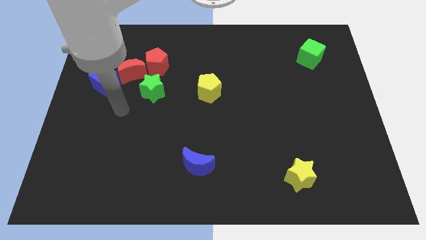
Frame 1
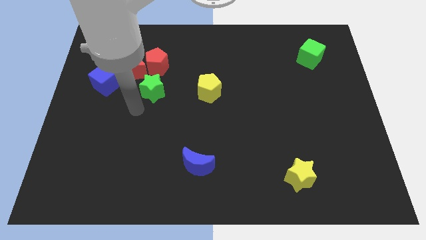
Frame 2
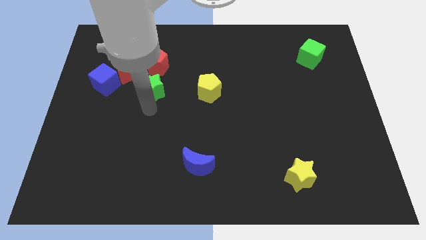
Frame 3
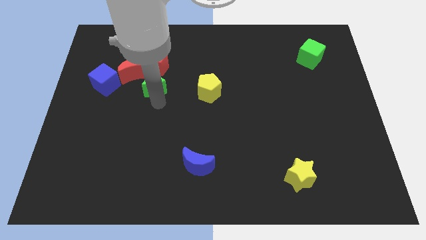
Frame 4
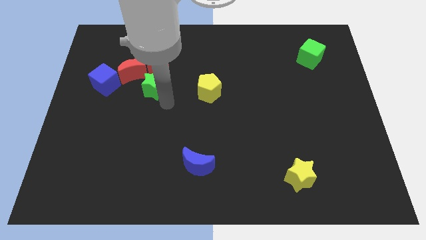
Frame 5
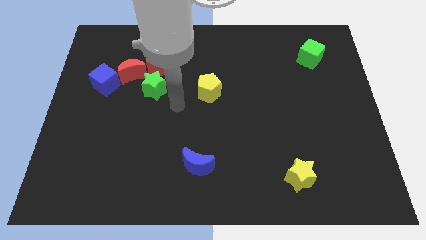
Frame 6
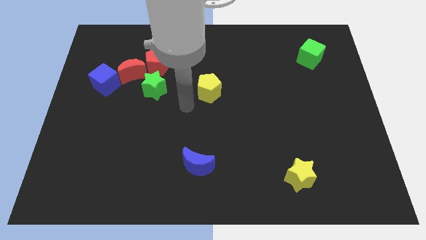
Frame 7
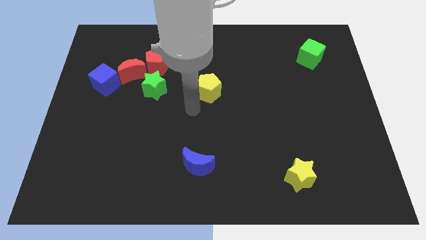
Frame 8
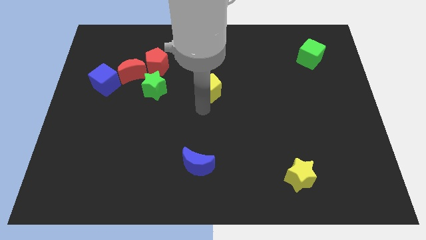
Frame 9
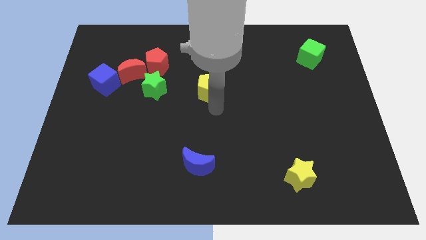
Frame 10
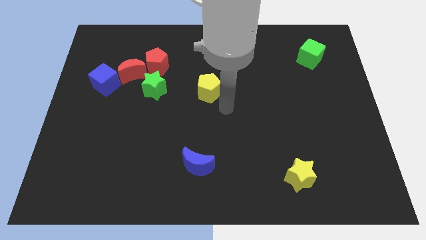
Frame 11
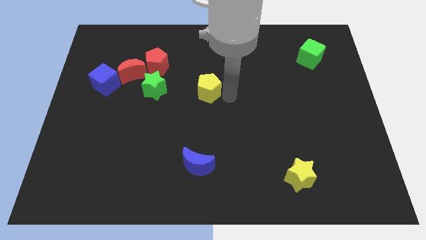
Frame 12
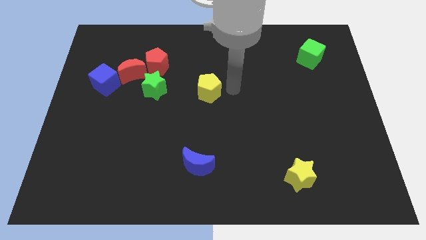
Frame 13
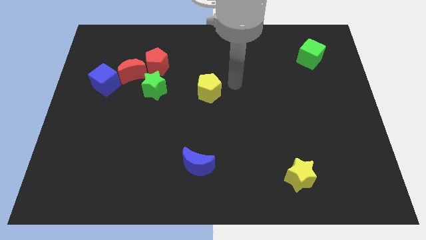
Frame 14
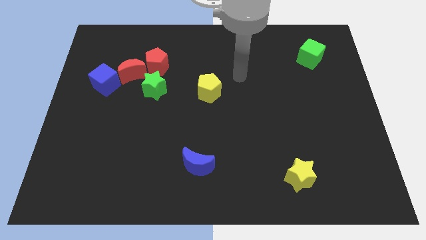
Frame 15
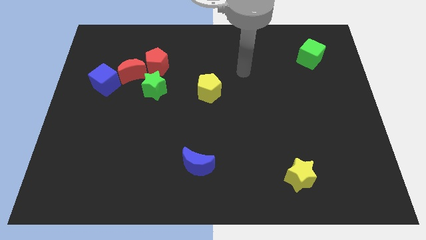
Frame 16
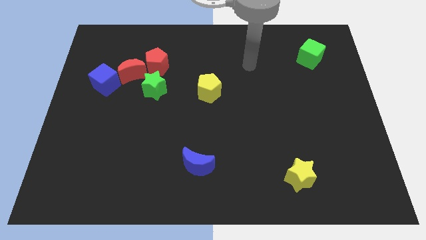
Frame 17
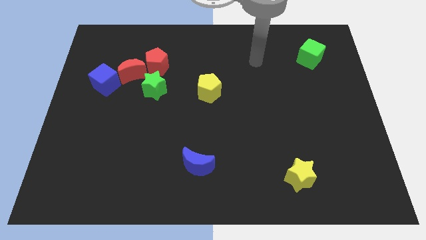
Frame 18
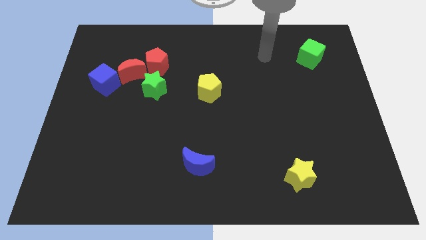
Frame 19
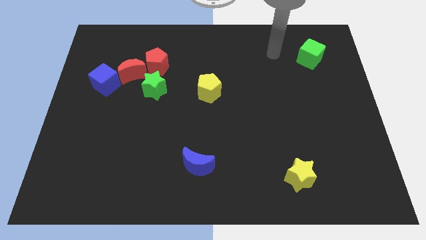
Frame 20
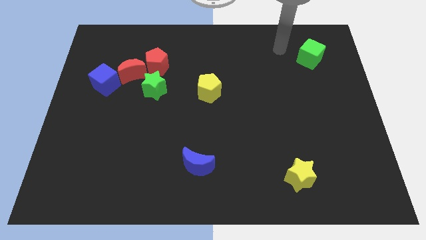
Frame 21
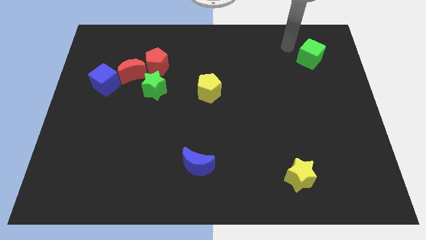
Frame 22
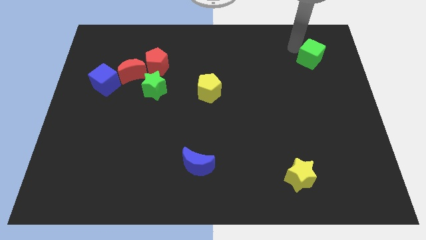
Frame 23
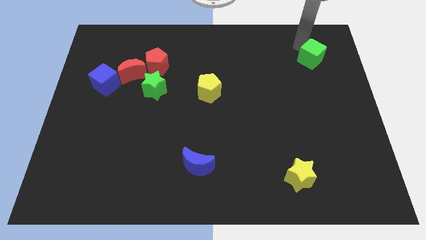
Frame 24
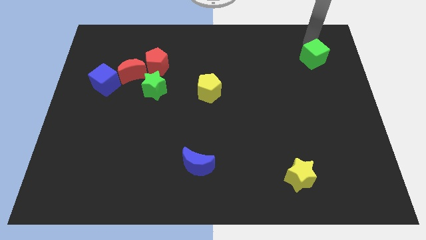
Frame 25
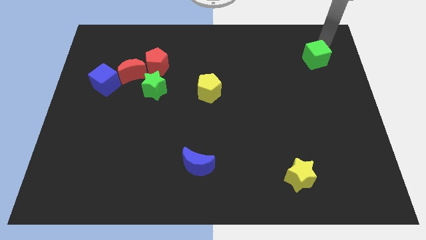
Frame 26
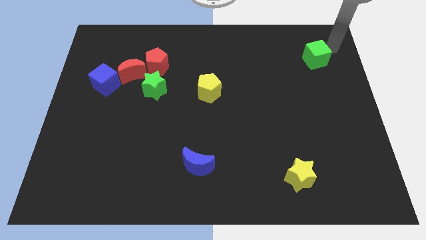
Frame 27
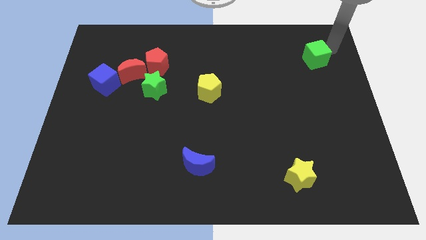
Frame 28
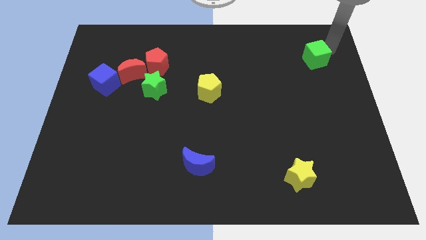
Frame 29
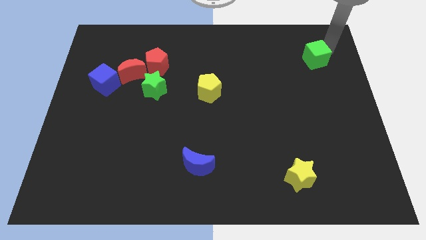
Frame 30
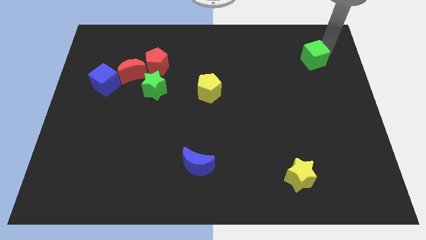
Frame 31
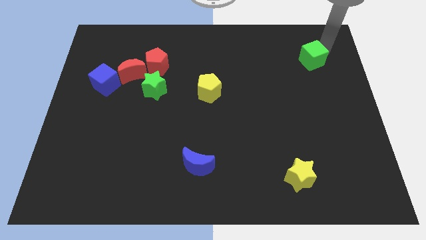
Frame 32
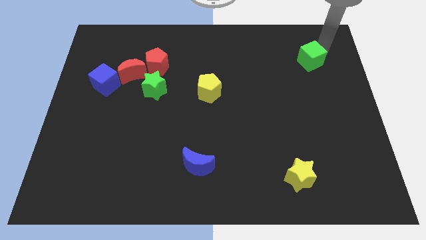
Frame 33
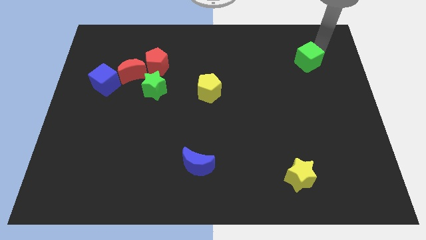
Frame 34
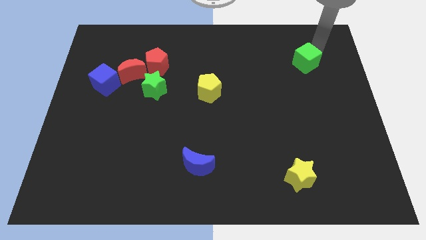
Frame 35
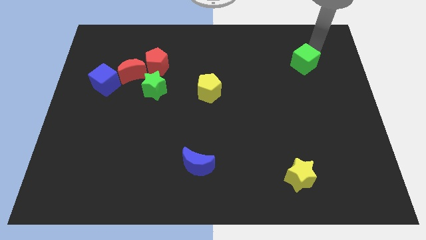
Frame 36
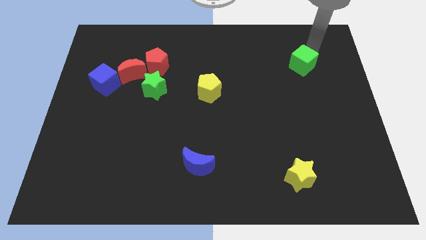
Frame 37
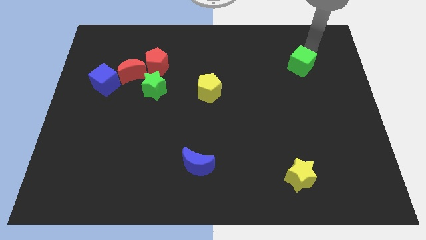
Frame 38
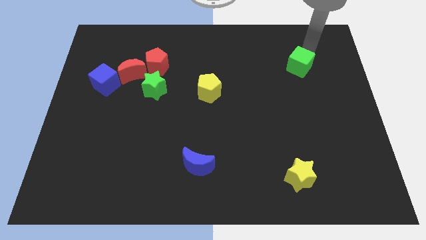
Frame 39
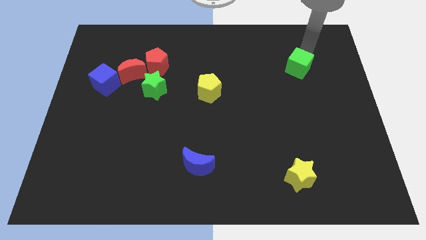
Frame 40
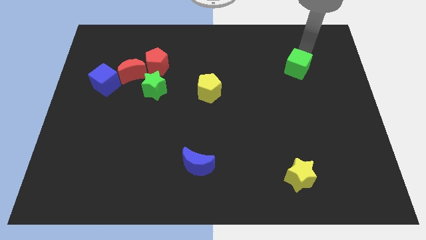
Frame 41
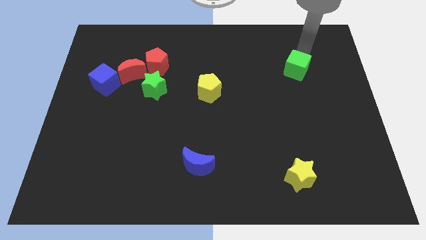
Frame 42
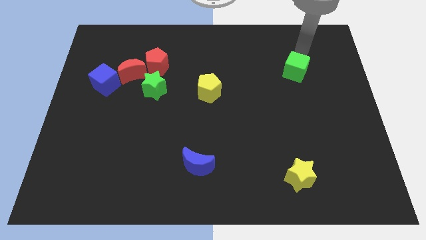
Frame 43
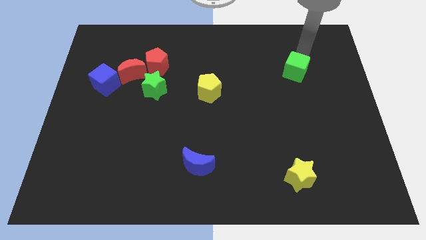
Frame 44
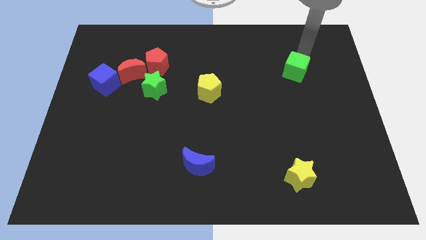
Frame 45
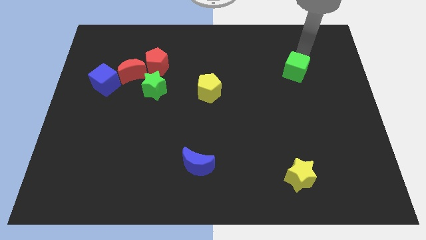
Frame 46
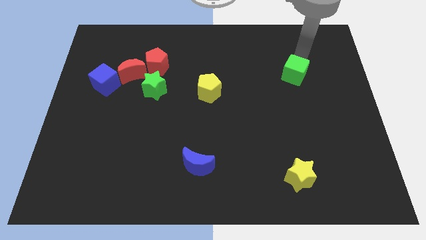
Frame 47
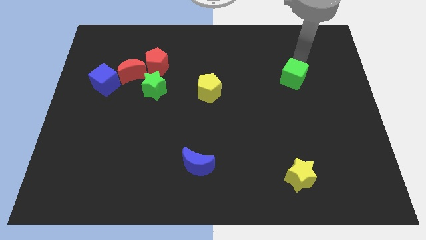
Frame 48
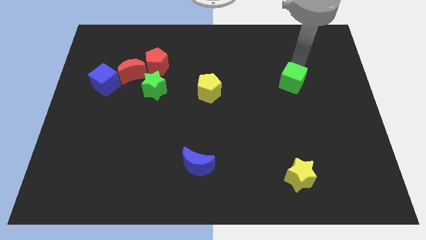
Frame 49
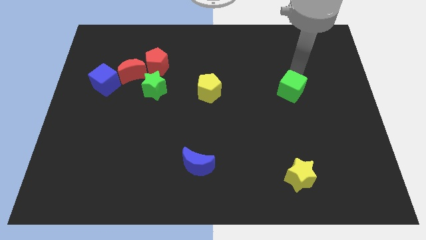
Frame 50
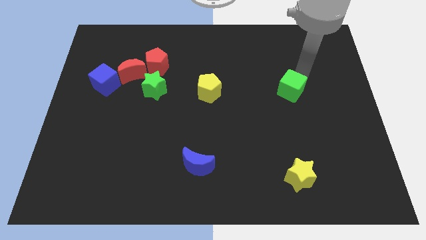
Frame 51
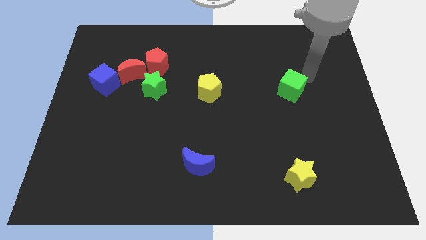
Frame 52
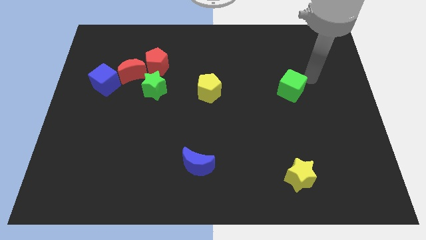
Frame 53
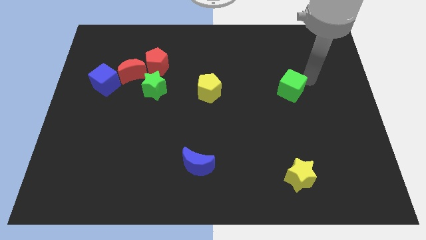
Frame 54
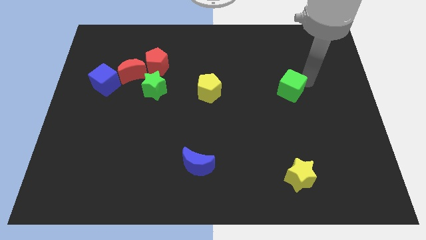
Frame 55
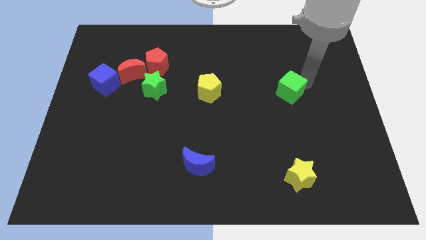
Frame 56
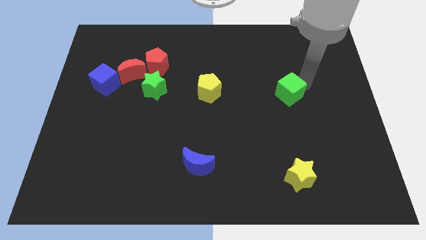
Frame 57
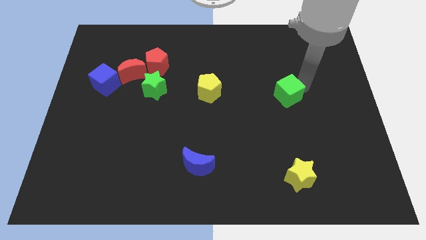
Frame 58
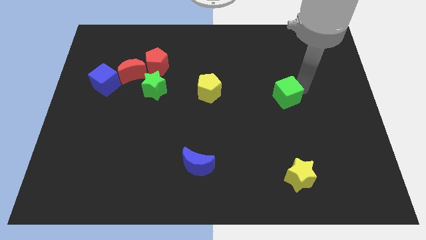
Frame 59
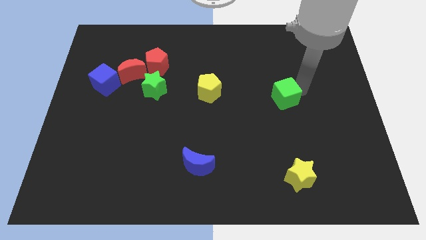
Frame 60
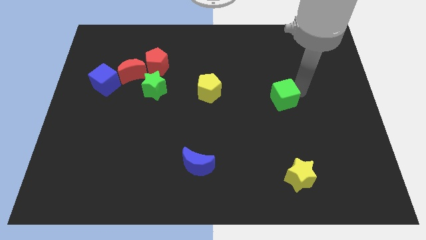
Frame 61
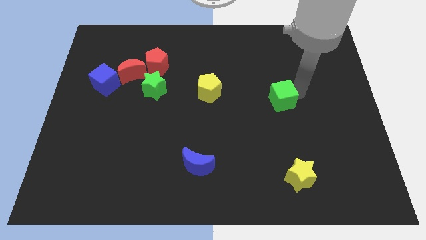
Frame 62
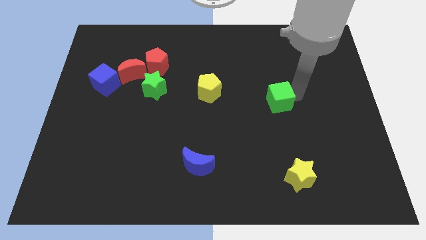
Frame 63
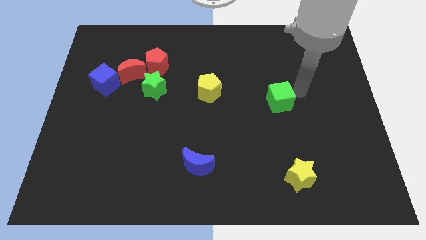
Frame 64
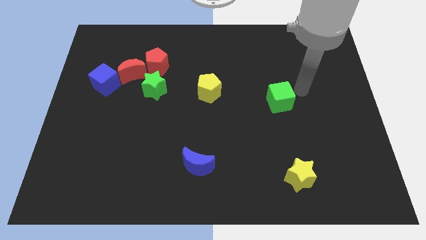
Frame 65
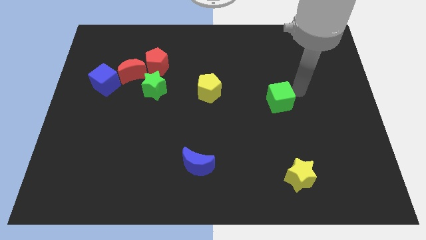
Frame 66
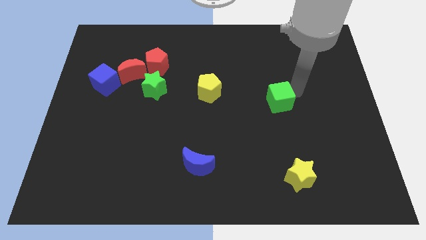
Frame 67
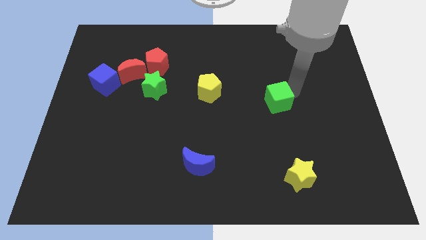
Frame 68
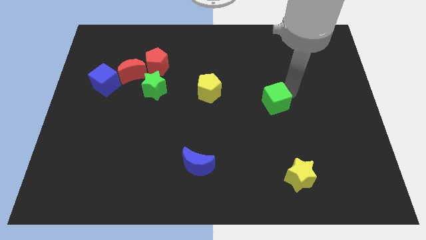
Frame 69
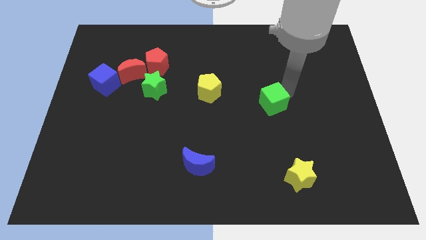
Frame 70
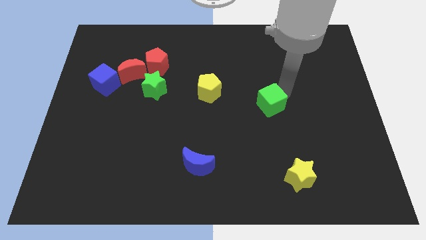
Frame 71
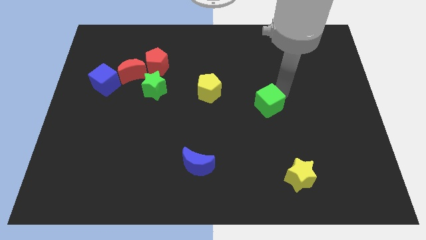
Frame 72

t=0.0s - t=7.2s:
move the green cube diagonally downwards and to the left

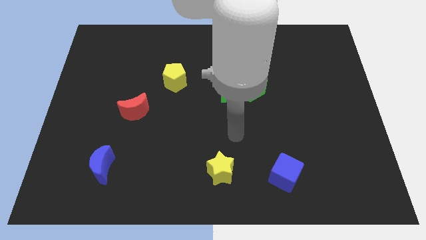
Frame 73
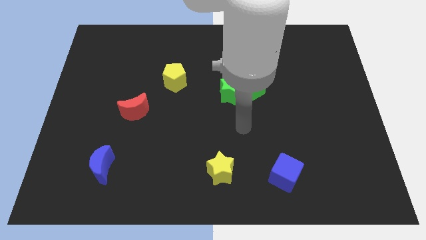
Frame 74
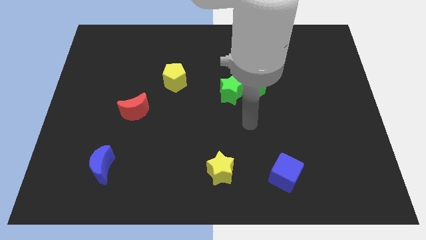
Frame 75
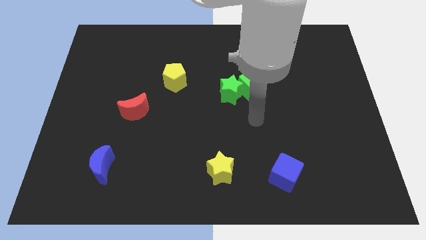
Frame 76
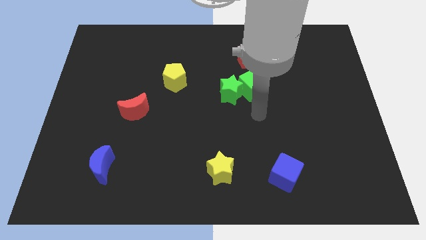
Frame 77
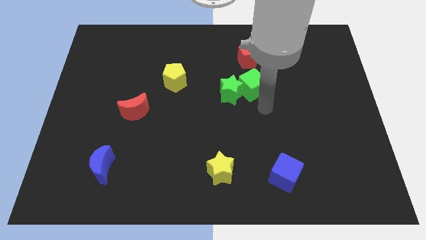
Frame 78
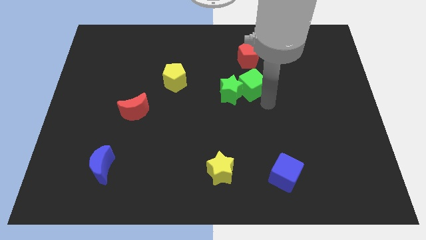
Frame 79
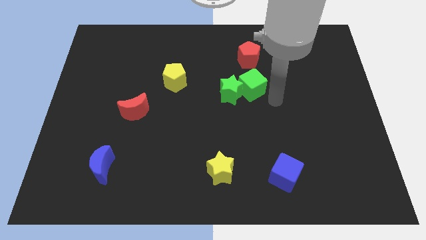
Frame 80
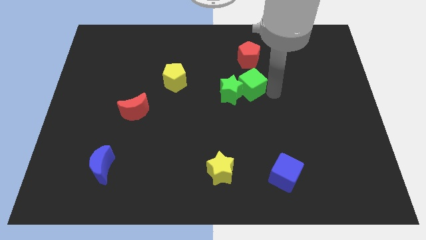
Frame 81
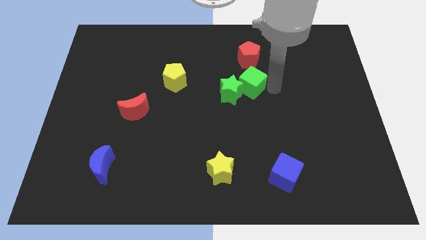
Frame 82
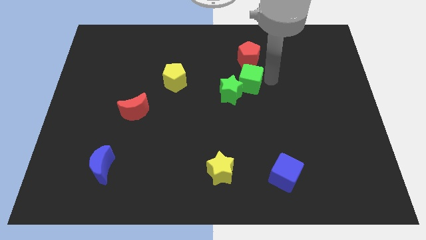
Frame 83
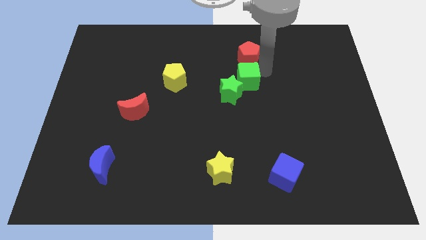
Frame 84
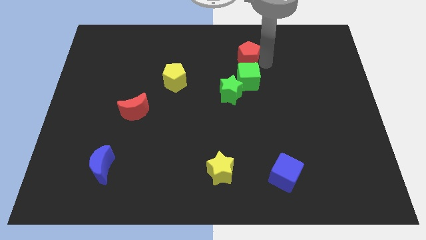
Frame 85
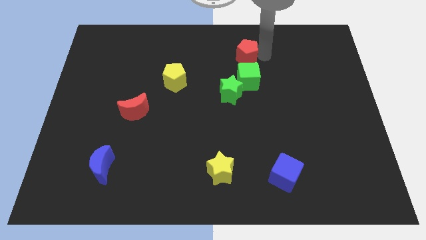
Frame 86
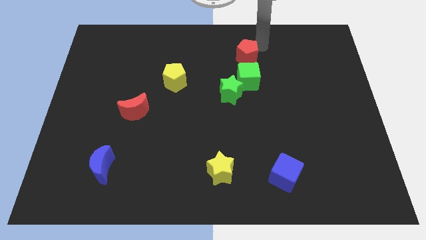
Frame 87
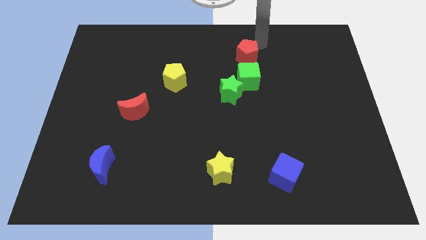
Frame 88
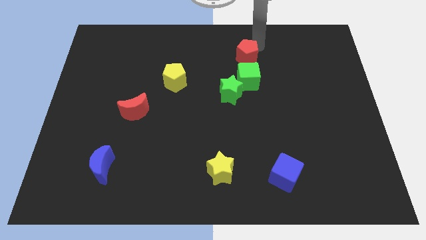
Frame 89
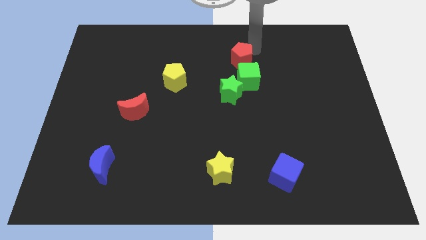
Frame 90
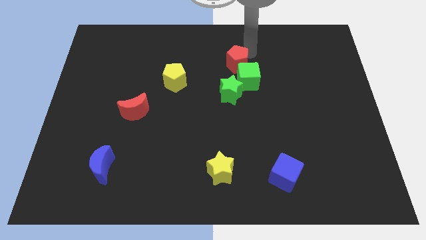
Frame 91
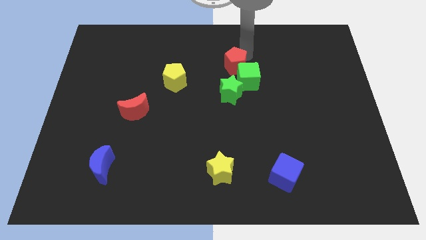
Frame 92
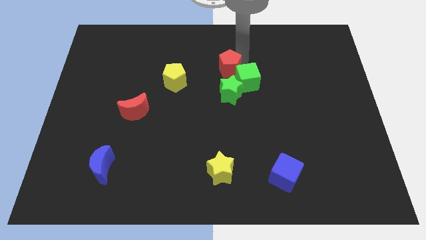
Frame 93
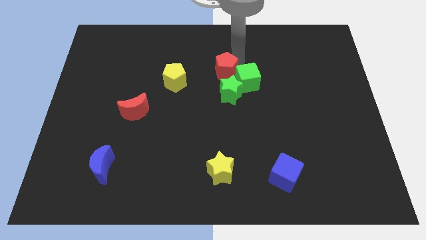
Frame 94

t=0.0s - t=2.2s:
slightly move the red pentagon downwards and then to the left
